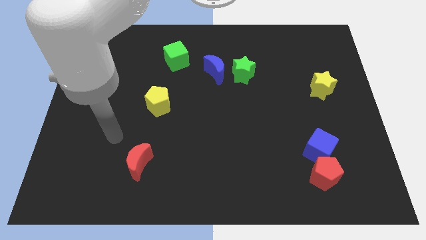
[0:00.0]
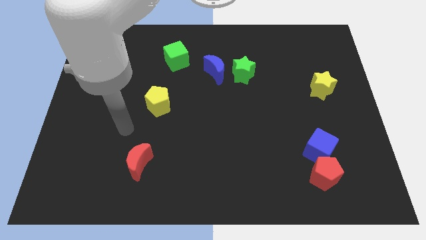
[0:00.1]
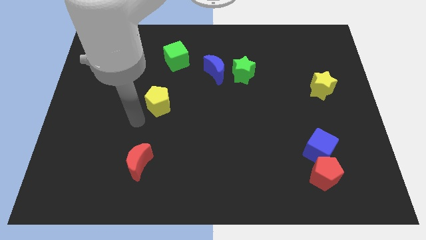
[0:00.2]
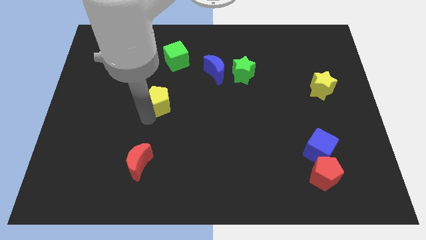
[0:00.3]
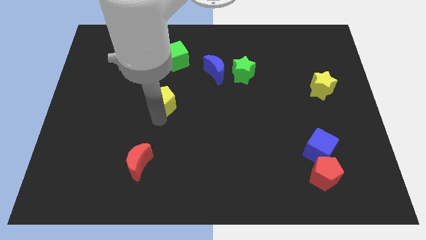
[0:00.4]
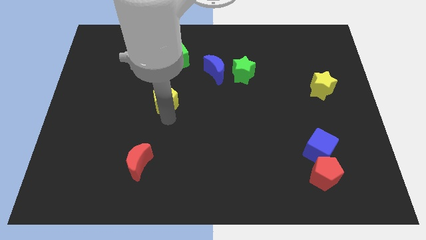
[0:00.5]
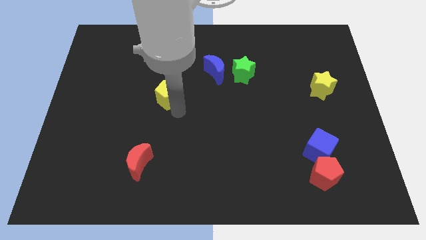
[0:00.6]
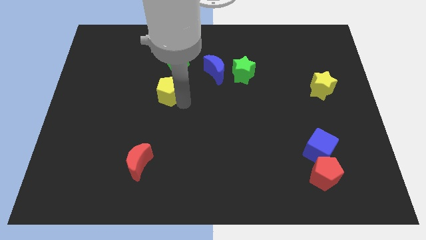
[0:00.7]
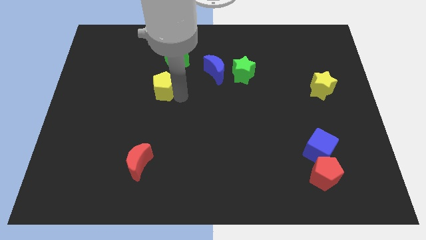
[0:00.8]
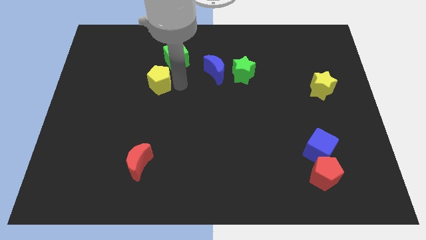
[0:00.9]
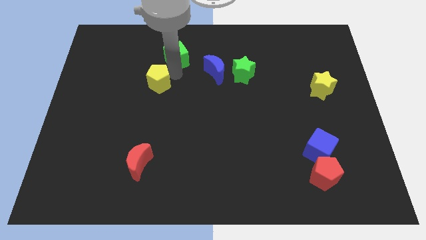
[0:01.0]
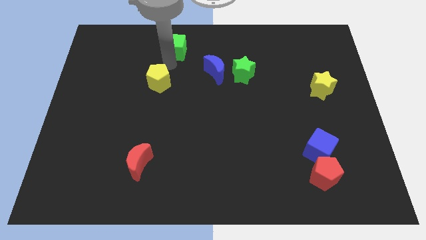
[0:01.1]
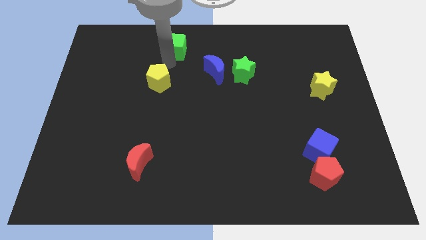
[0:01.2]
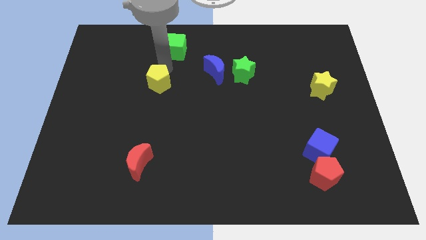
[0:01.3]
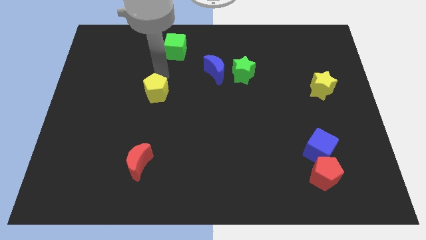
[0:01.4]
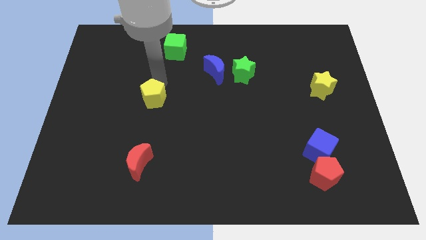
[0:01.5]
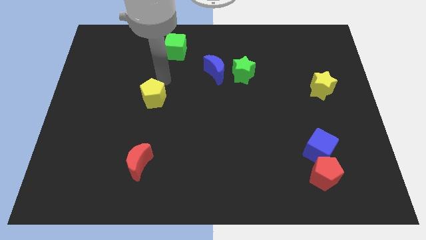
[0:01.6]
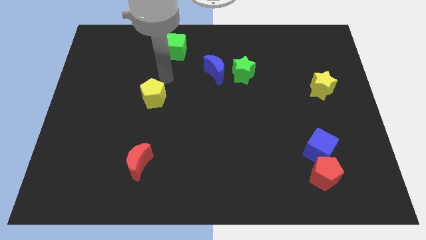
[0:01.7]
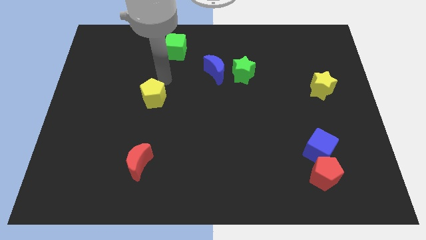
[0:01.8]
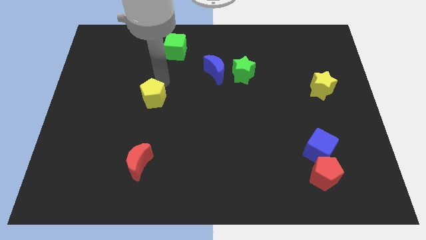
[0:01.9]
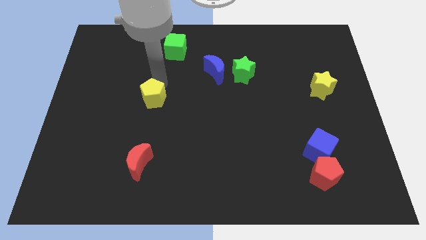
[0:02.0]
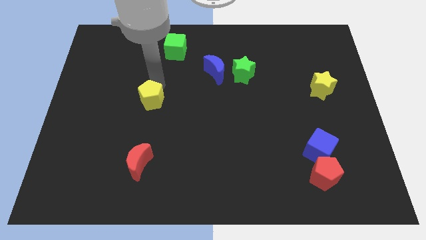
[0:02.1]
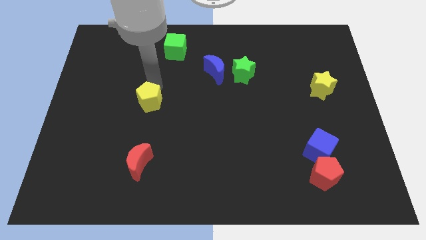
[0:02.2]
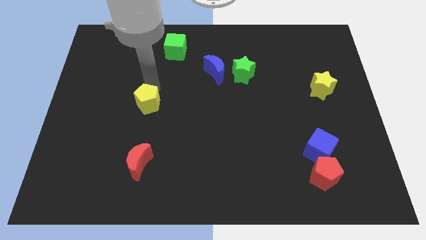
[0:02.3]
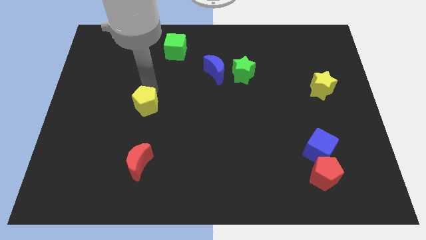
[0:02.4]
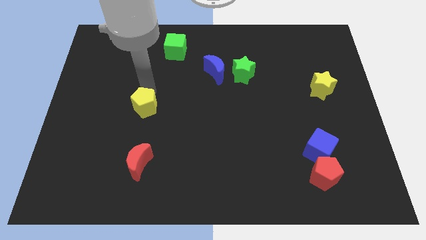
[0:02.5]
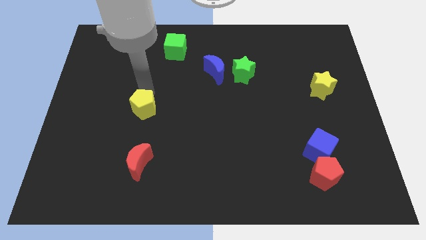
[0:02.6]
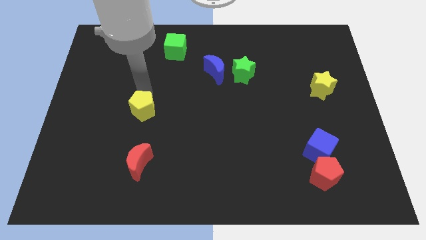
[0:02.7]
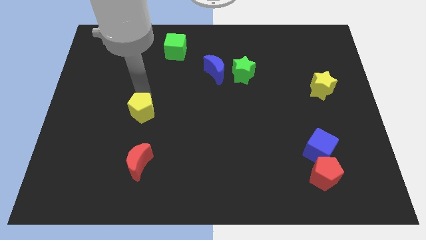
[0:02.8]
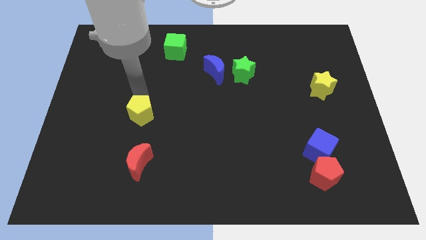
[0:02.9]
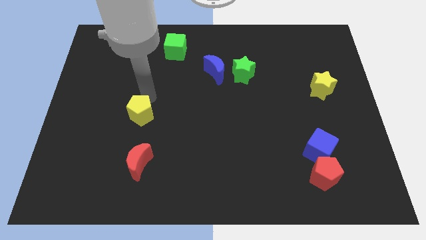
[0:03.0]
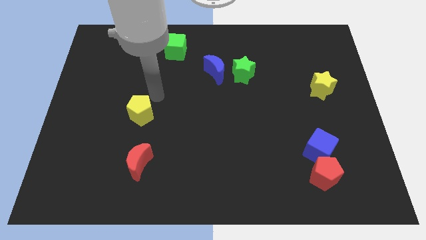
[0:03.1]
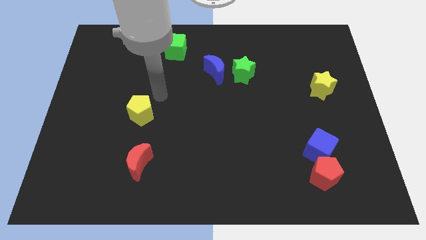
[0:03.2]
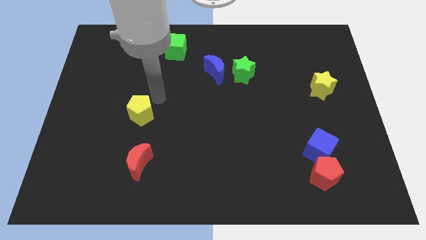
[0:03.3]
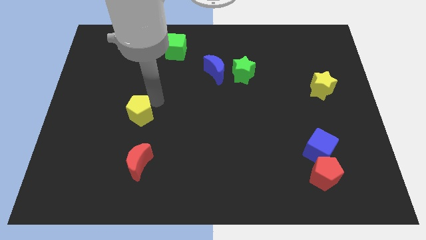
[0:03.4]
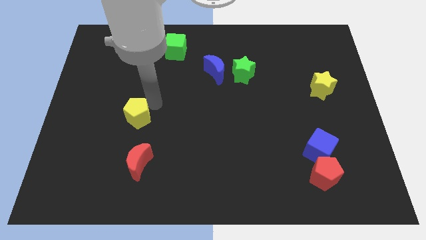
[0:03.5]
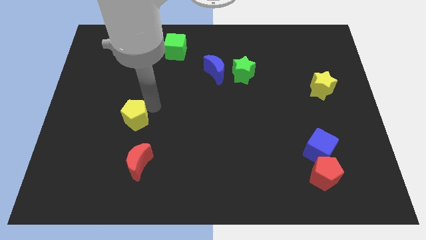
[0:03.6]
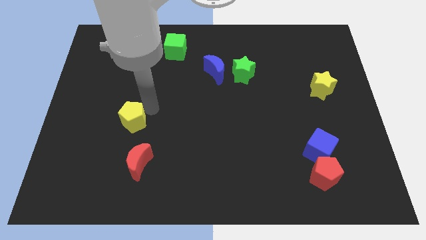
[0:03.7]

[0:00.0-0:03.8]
slide the yellow pentagon downwards and left slightly

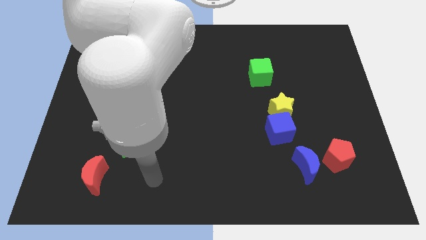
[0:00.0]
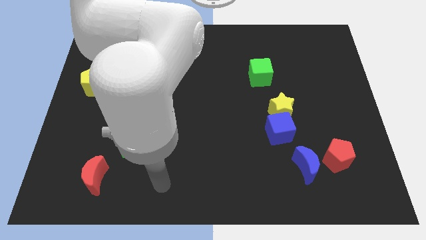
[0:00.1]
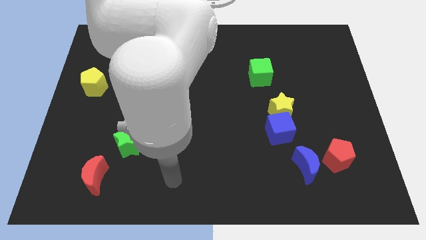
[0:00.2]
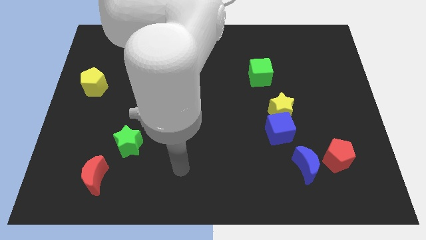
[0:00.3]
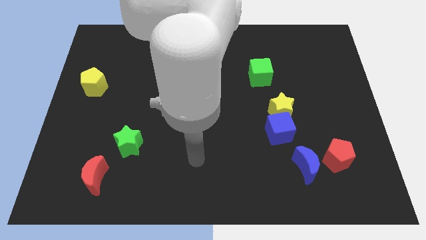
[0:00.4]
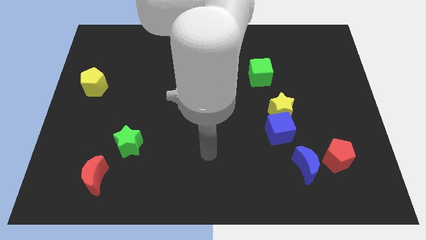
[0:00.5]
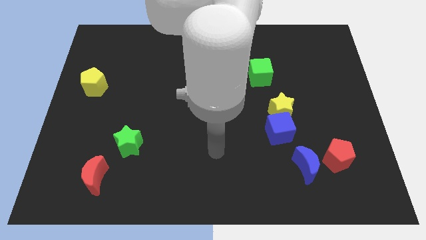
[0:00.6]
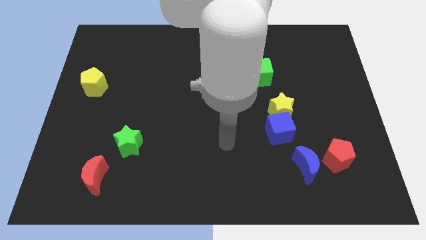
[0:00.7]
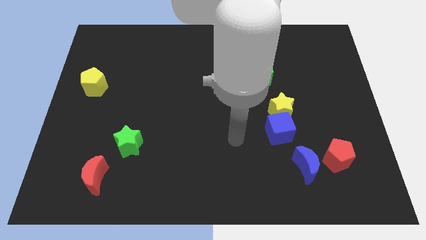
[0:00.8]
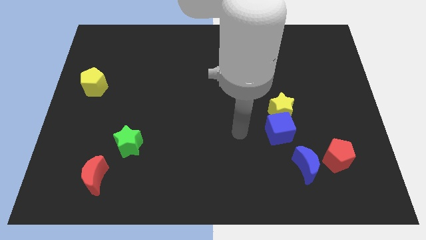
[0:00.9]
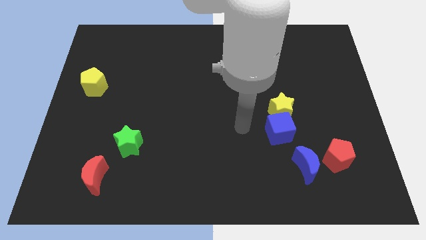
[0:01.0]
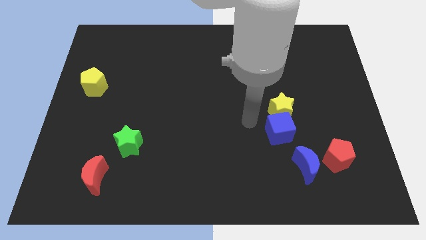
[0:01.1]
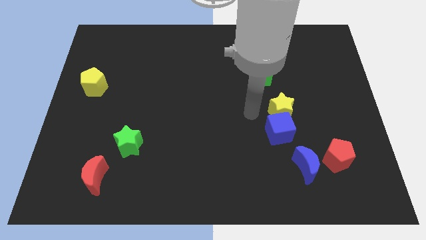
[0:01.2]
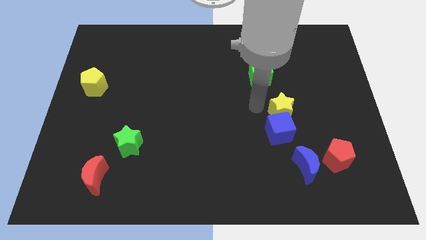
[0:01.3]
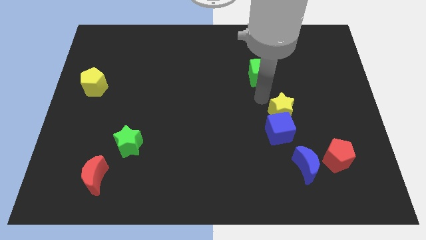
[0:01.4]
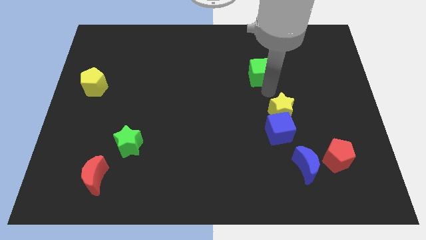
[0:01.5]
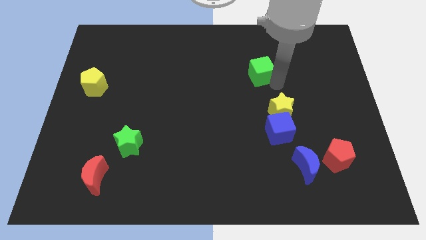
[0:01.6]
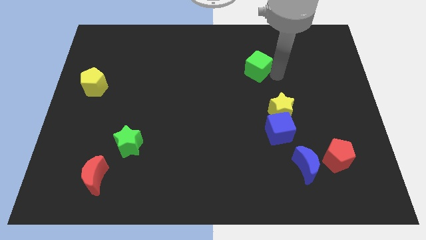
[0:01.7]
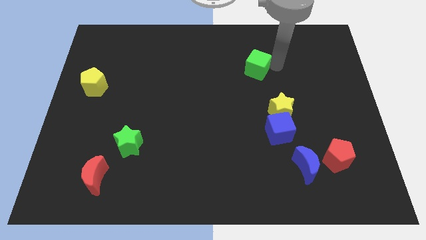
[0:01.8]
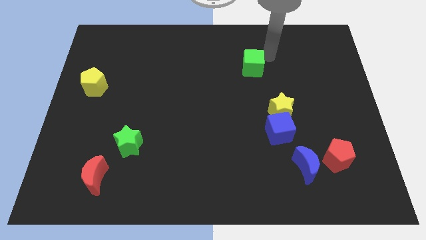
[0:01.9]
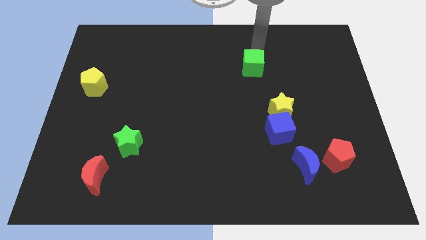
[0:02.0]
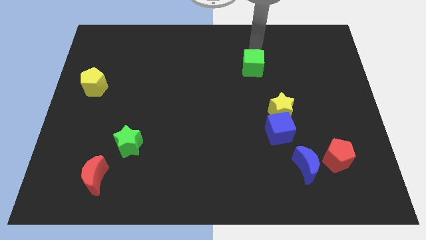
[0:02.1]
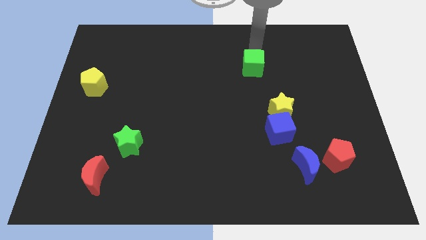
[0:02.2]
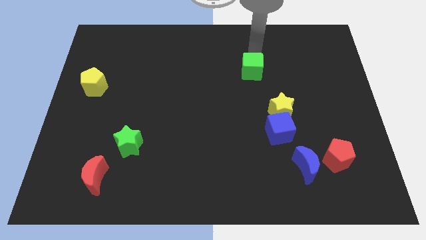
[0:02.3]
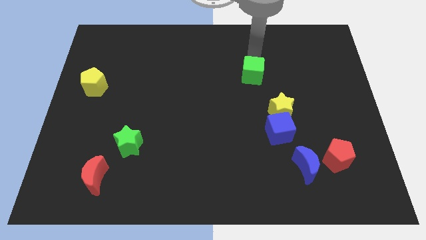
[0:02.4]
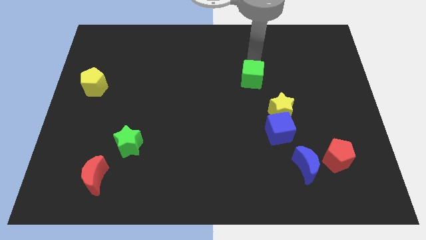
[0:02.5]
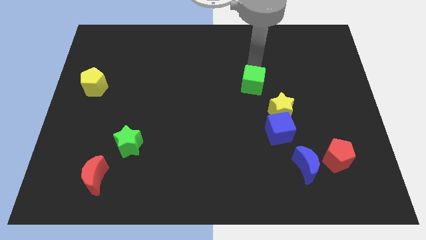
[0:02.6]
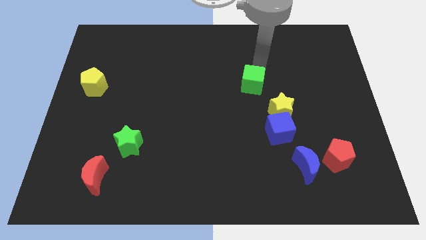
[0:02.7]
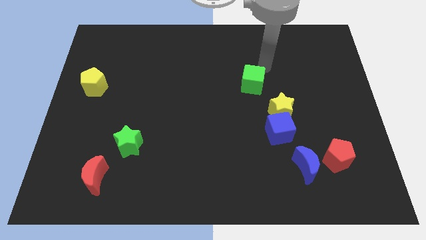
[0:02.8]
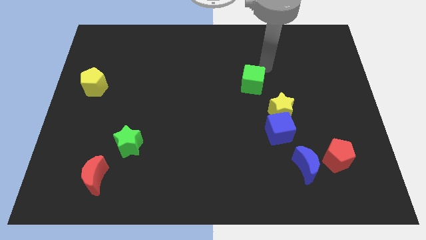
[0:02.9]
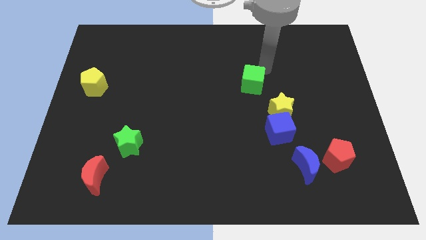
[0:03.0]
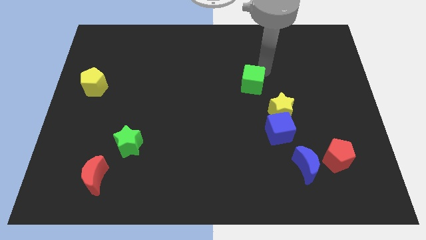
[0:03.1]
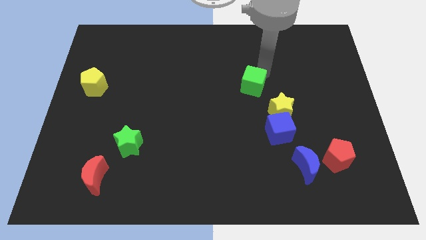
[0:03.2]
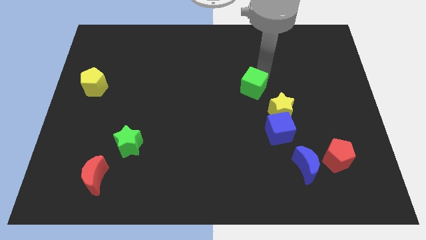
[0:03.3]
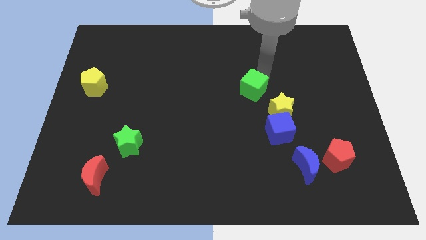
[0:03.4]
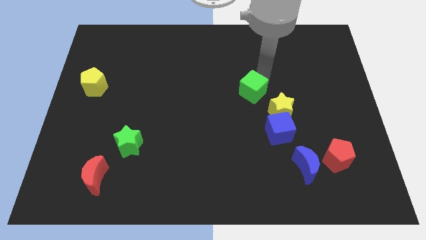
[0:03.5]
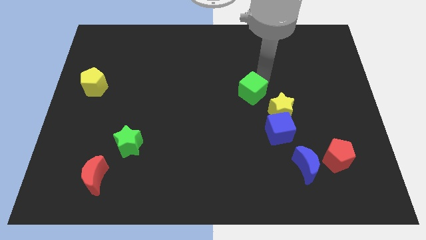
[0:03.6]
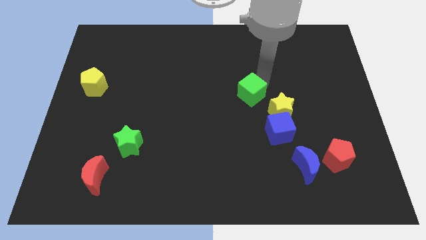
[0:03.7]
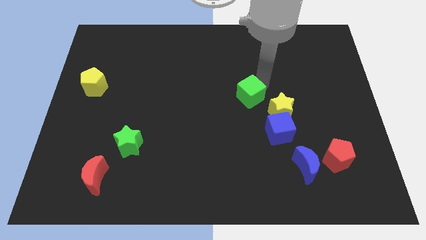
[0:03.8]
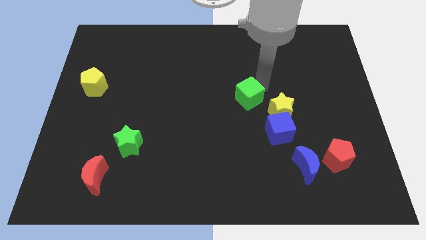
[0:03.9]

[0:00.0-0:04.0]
slightly slide the green cube down and then to the left

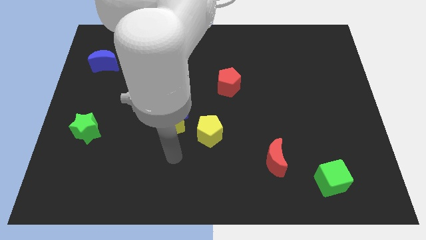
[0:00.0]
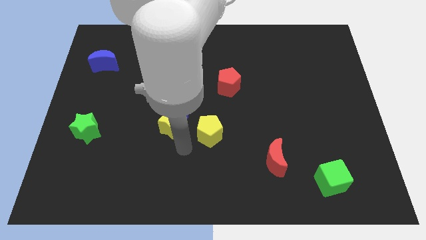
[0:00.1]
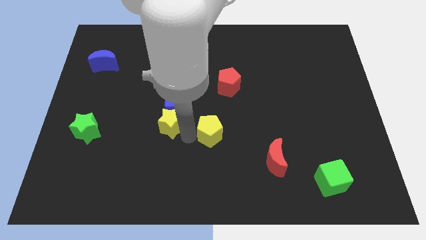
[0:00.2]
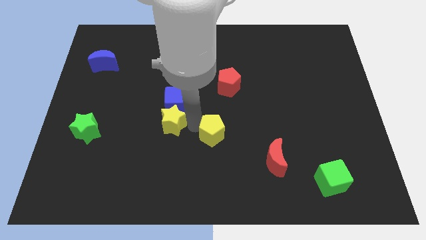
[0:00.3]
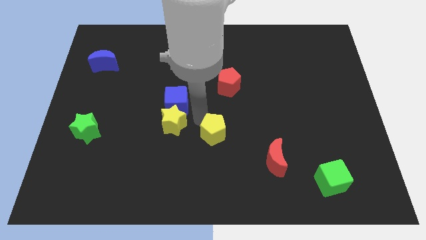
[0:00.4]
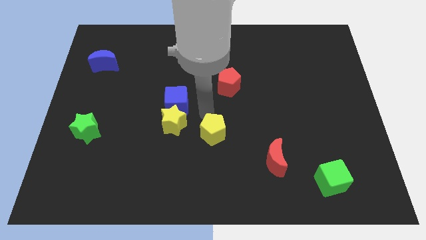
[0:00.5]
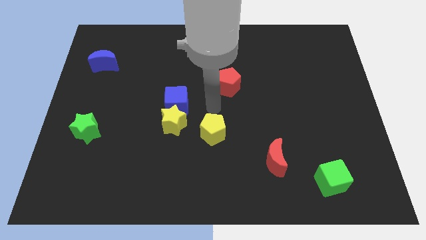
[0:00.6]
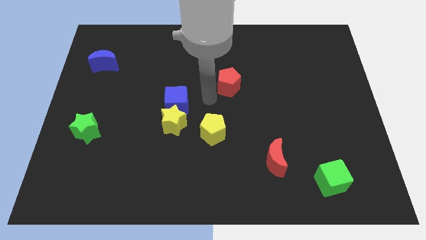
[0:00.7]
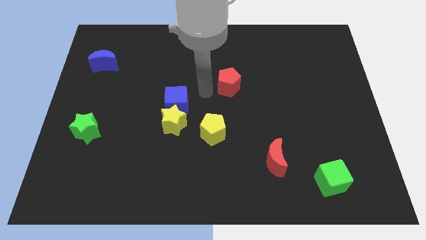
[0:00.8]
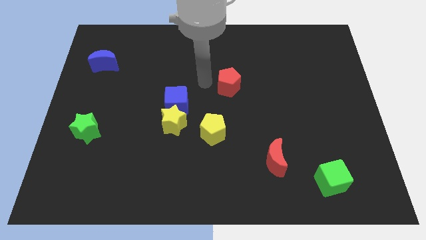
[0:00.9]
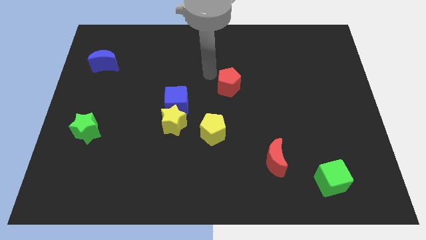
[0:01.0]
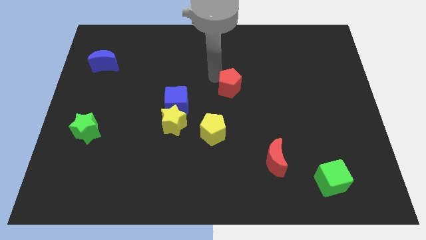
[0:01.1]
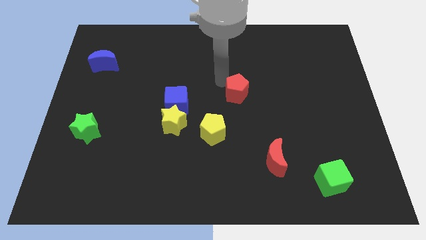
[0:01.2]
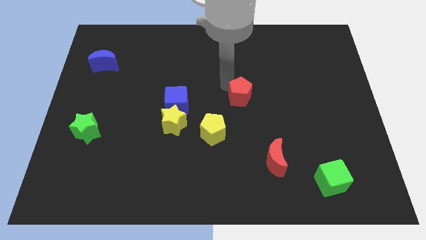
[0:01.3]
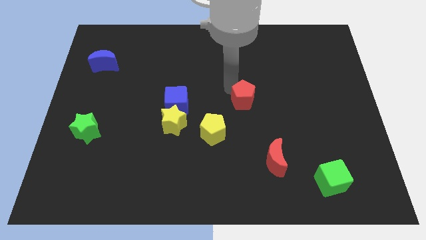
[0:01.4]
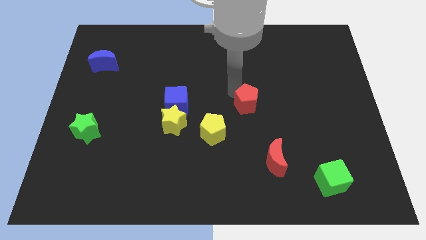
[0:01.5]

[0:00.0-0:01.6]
slide the red pentagon down and to the right a bit
